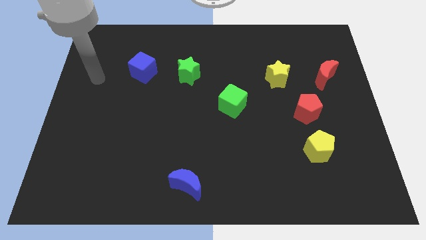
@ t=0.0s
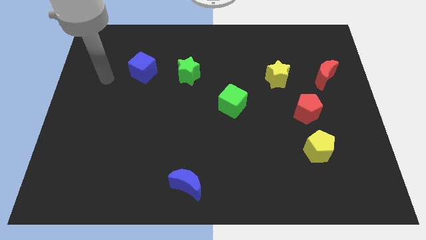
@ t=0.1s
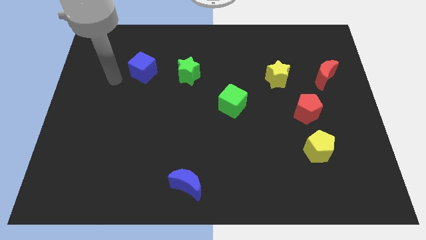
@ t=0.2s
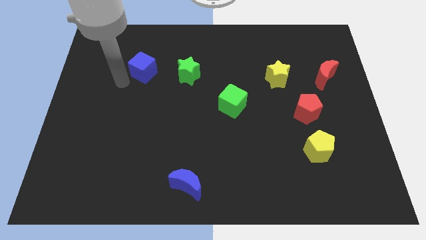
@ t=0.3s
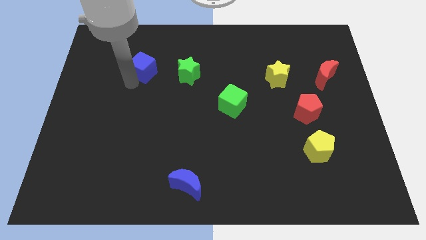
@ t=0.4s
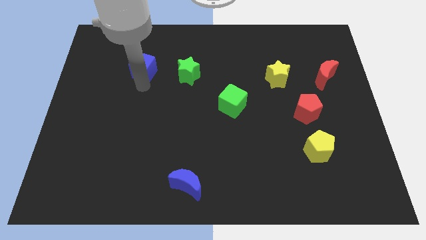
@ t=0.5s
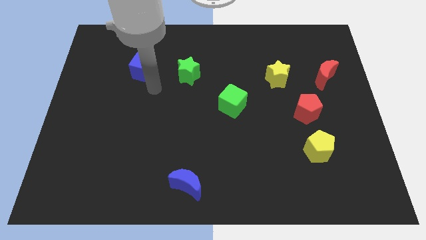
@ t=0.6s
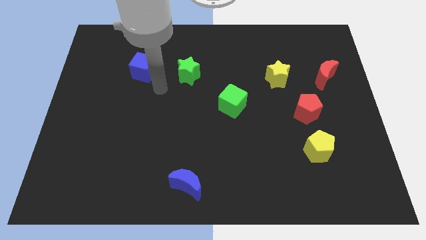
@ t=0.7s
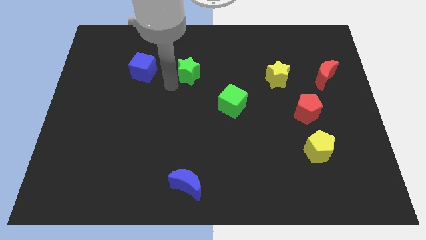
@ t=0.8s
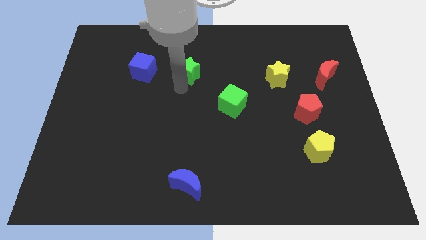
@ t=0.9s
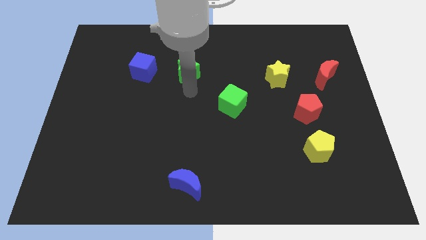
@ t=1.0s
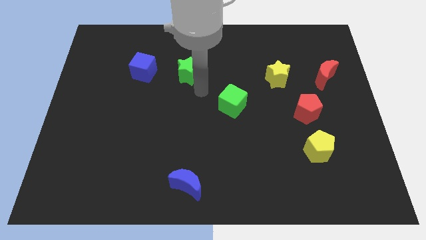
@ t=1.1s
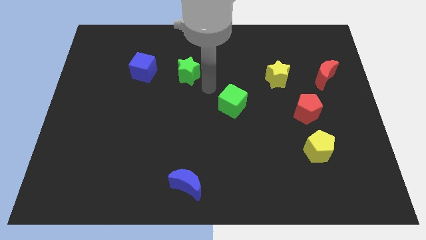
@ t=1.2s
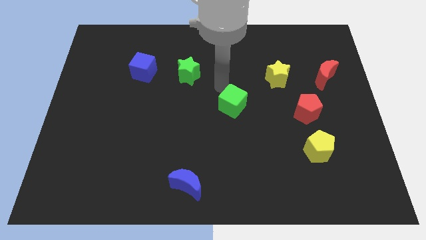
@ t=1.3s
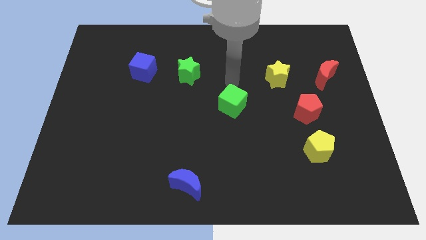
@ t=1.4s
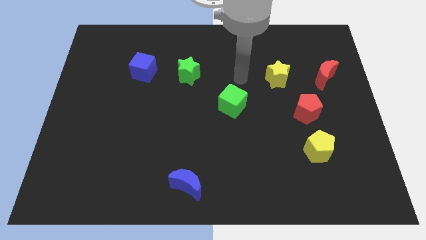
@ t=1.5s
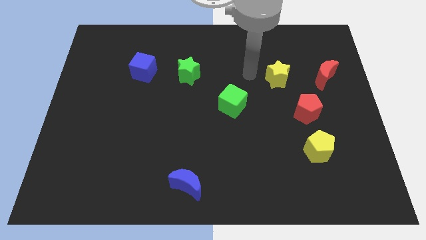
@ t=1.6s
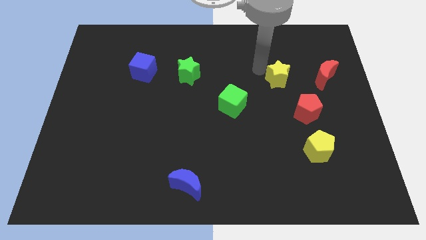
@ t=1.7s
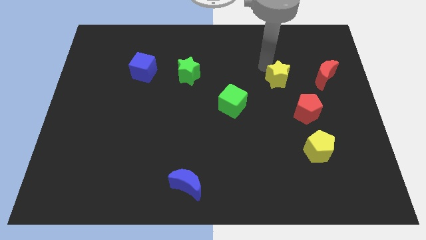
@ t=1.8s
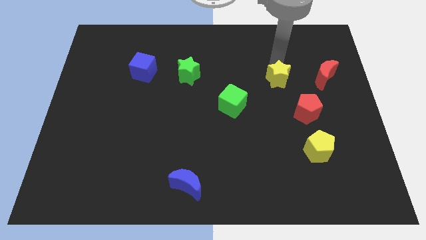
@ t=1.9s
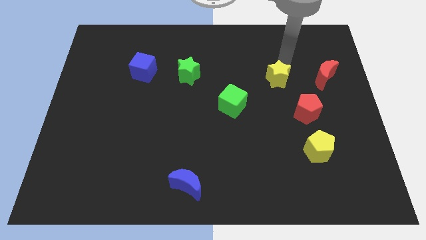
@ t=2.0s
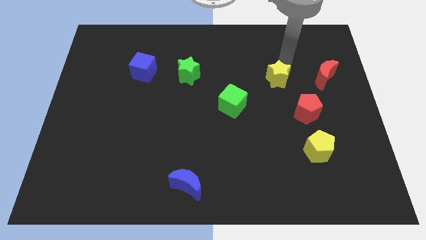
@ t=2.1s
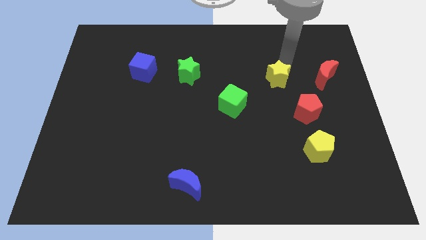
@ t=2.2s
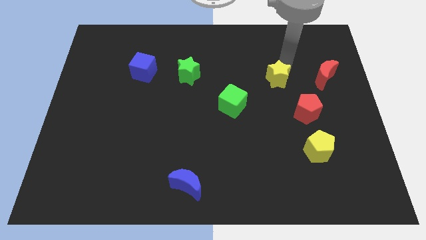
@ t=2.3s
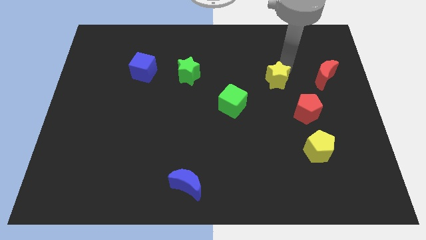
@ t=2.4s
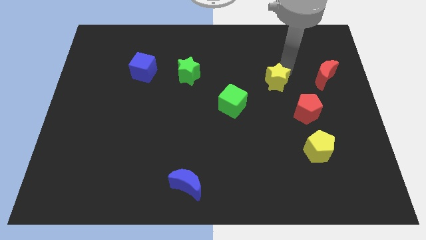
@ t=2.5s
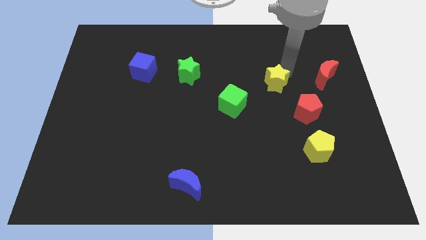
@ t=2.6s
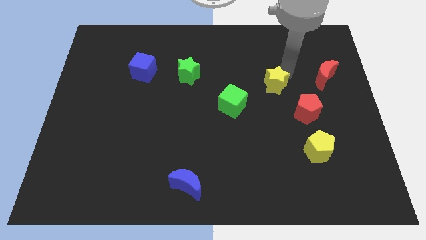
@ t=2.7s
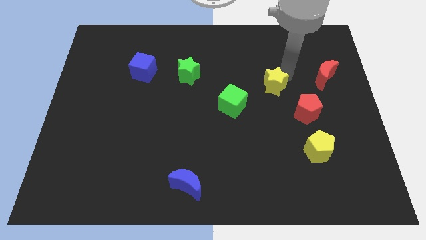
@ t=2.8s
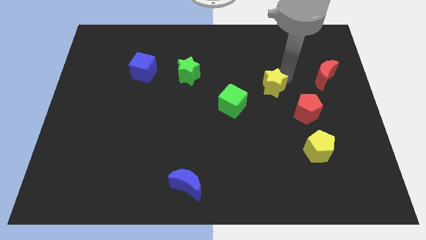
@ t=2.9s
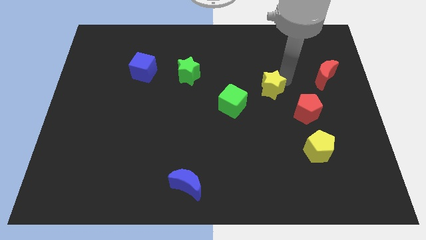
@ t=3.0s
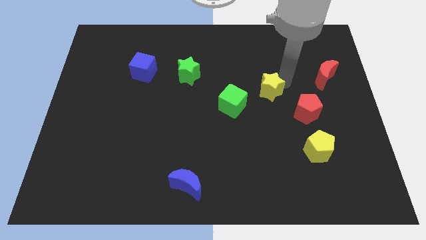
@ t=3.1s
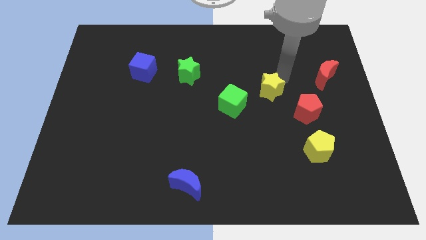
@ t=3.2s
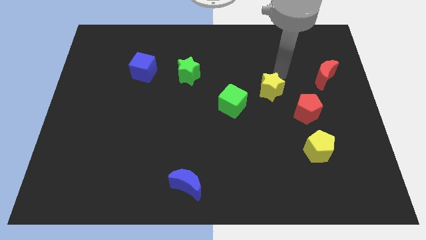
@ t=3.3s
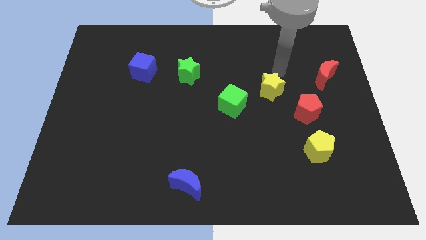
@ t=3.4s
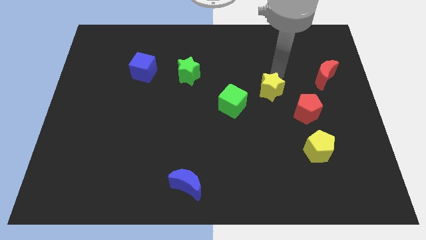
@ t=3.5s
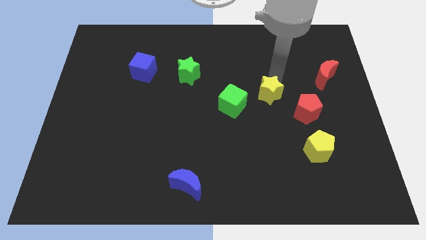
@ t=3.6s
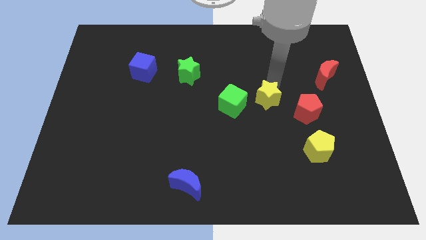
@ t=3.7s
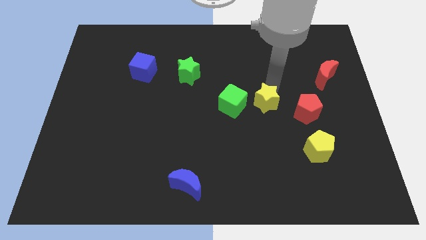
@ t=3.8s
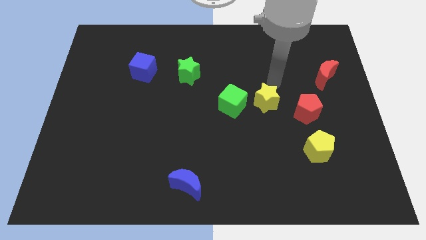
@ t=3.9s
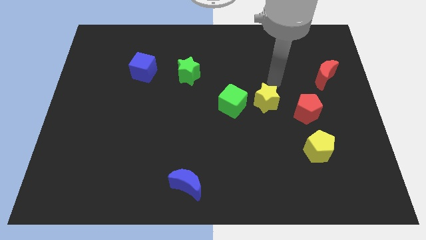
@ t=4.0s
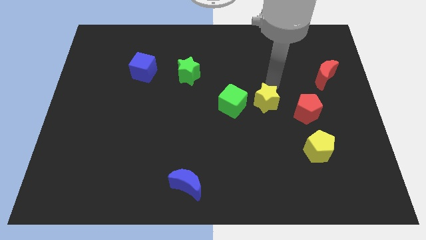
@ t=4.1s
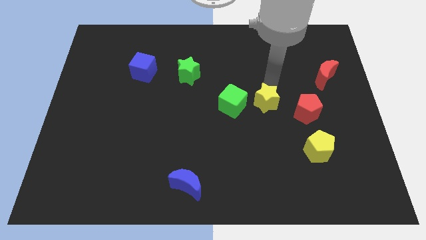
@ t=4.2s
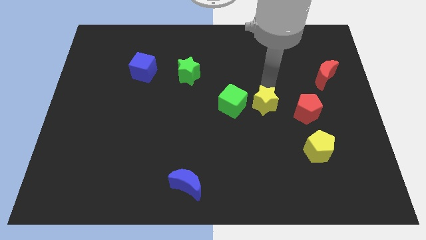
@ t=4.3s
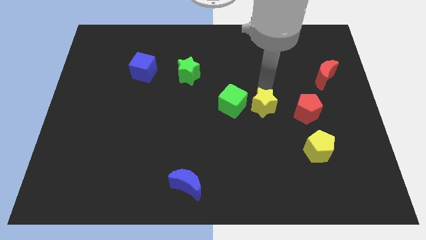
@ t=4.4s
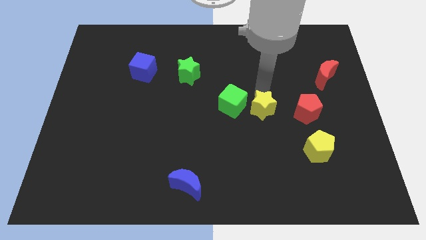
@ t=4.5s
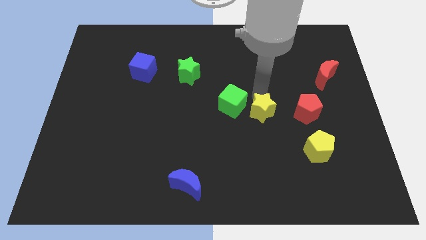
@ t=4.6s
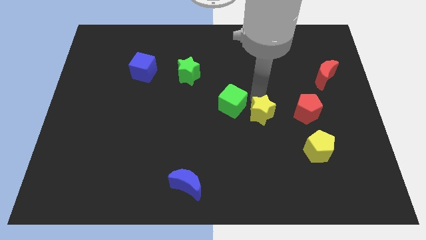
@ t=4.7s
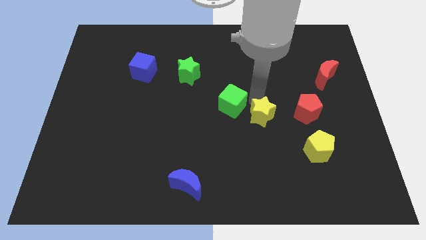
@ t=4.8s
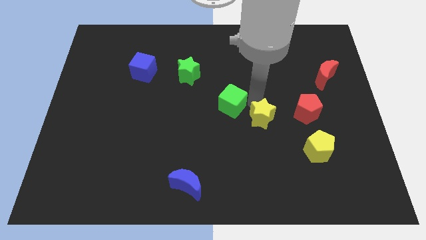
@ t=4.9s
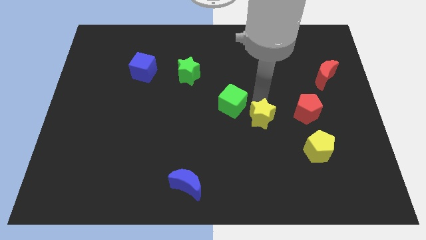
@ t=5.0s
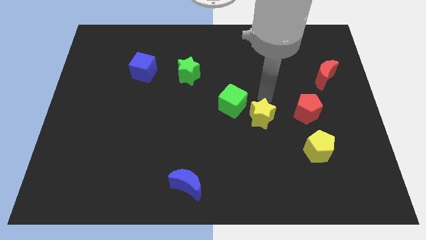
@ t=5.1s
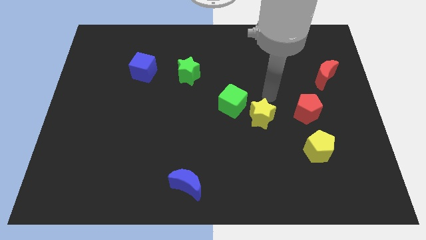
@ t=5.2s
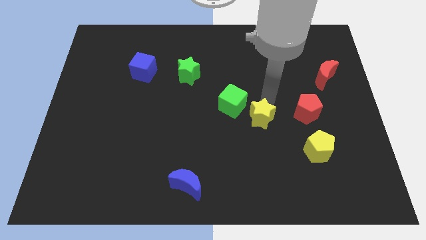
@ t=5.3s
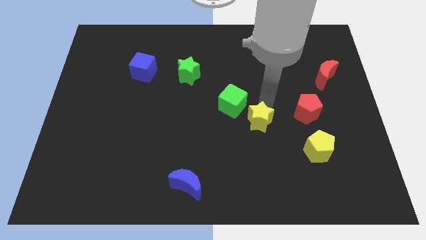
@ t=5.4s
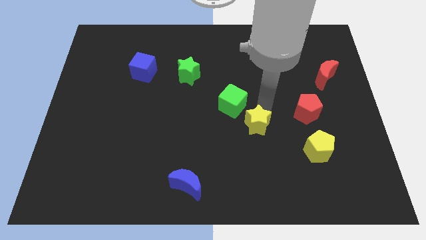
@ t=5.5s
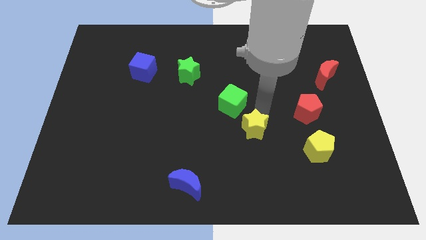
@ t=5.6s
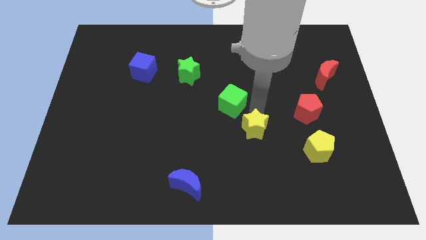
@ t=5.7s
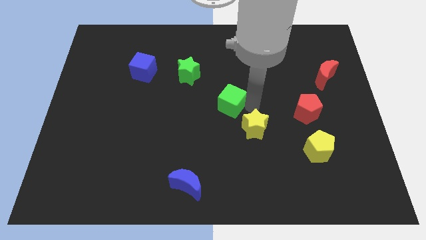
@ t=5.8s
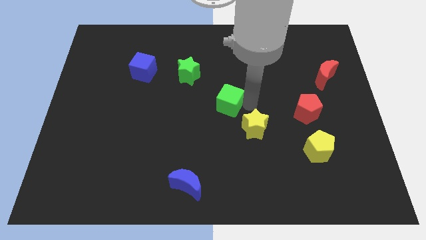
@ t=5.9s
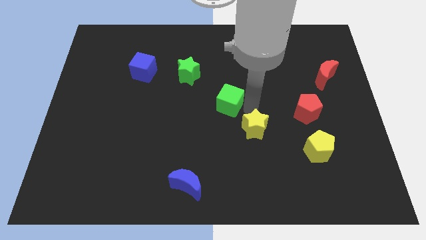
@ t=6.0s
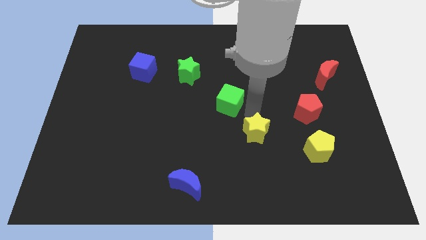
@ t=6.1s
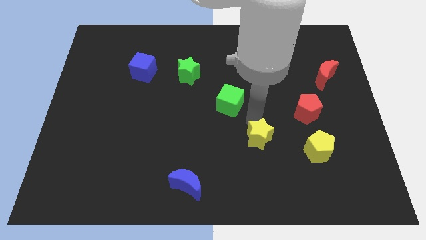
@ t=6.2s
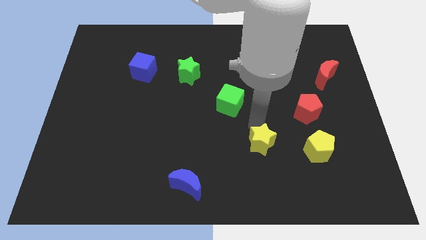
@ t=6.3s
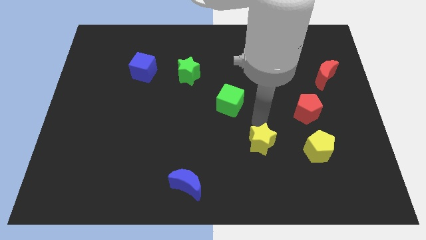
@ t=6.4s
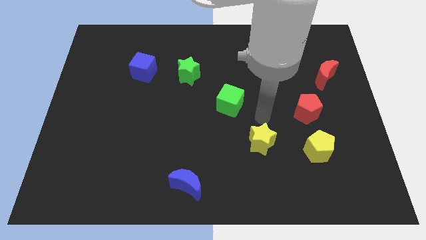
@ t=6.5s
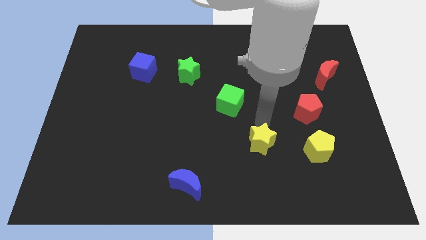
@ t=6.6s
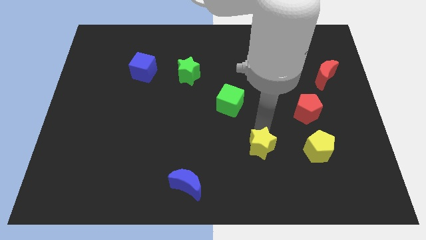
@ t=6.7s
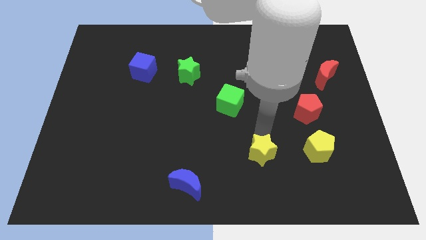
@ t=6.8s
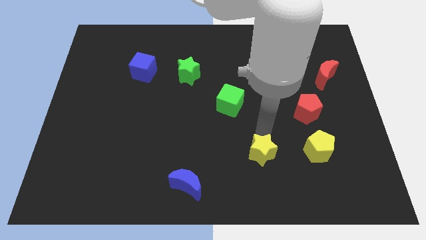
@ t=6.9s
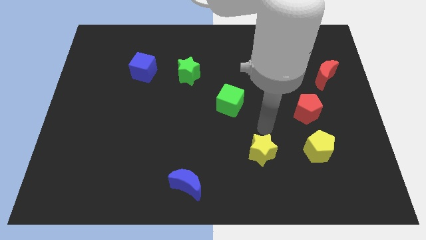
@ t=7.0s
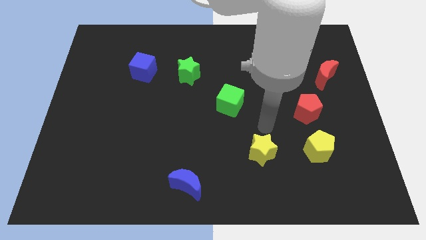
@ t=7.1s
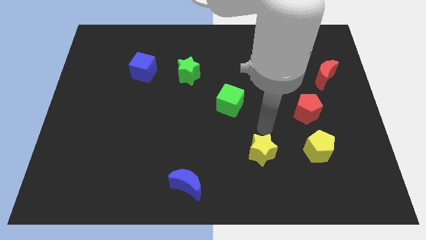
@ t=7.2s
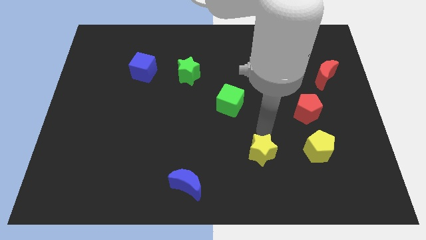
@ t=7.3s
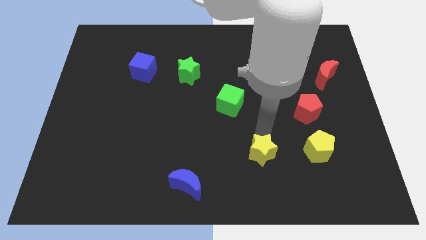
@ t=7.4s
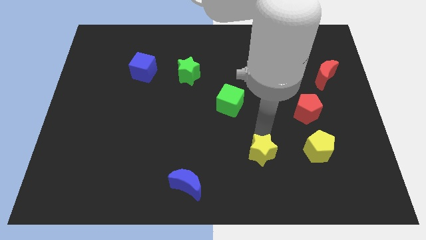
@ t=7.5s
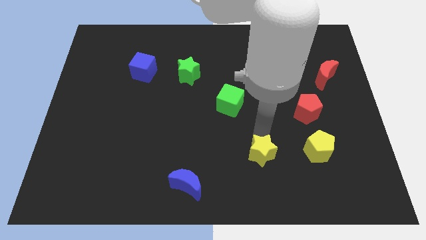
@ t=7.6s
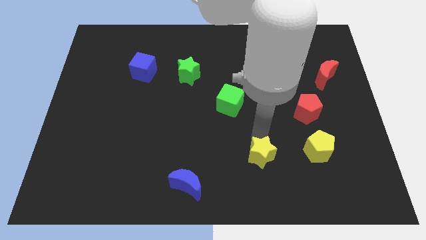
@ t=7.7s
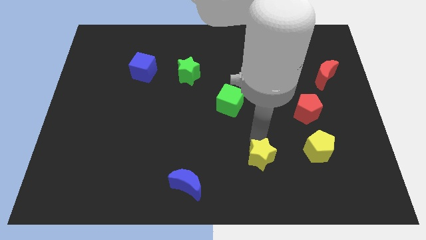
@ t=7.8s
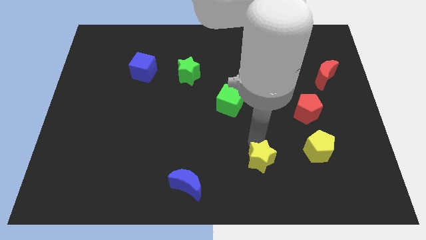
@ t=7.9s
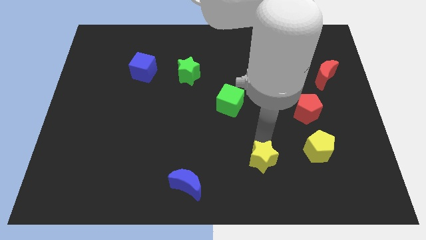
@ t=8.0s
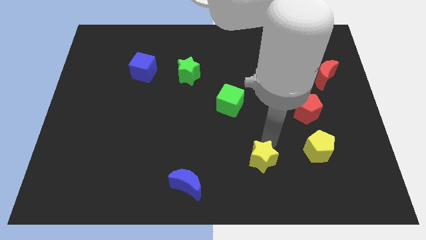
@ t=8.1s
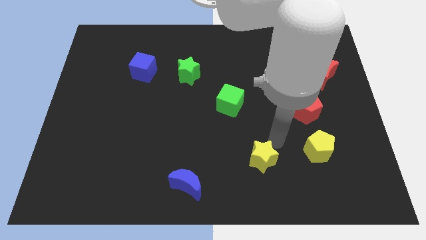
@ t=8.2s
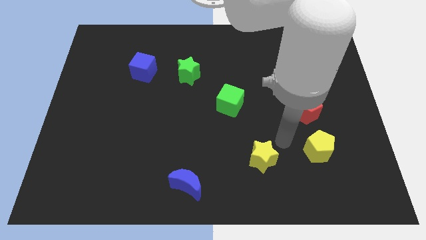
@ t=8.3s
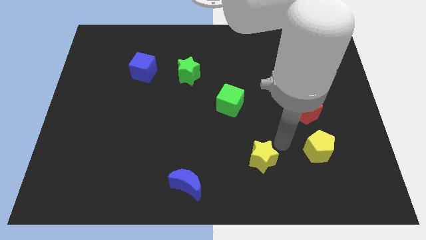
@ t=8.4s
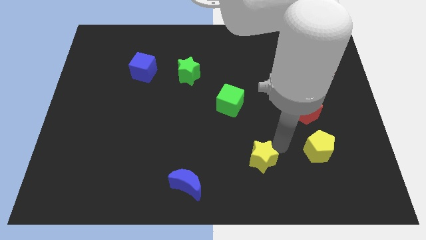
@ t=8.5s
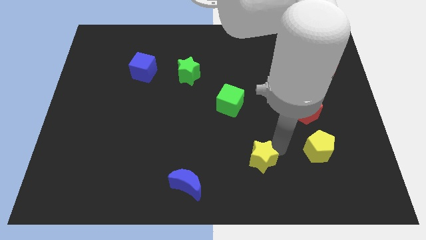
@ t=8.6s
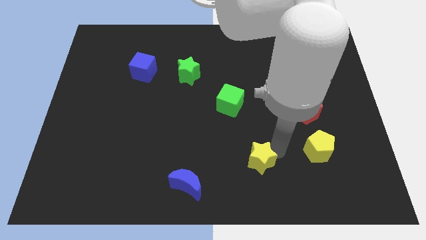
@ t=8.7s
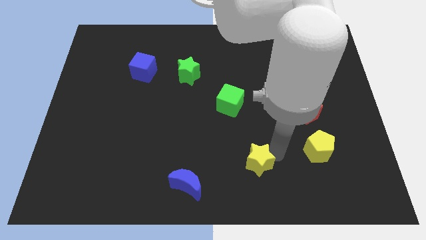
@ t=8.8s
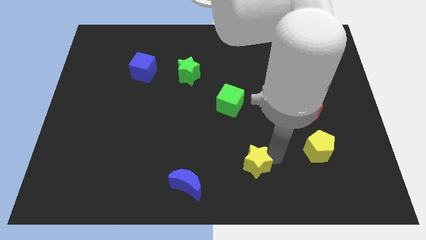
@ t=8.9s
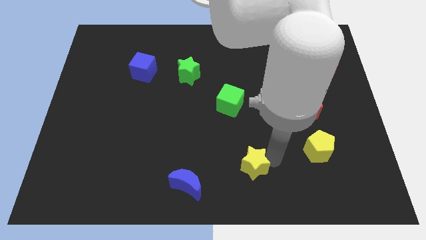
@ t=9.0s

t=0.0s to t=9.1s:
put the yellow star to the bottom side
